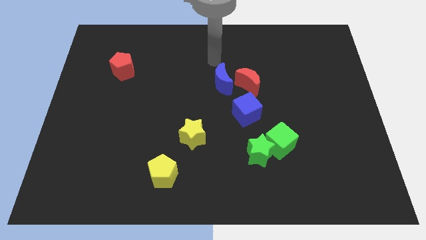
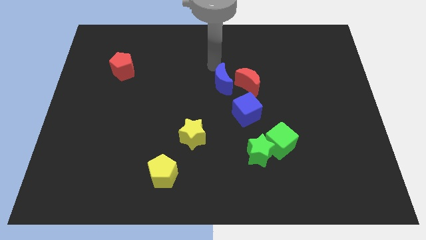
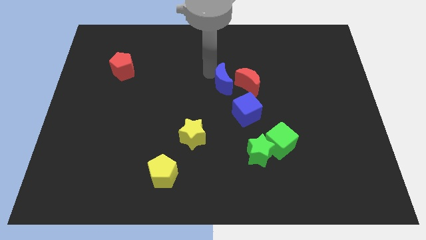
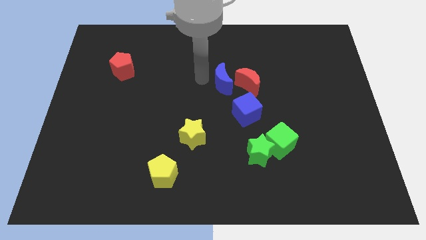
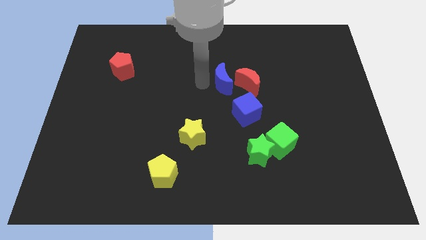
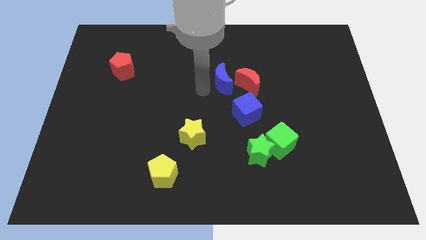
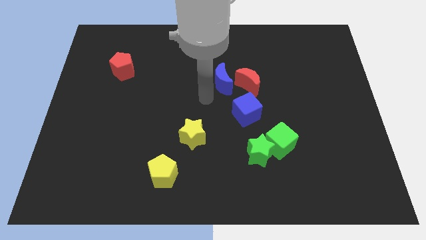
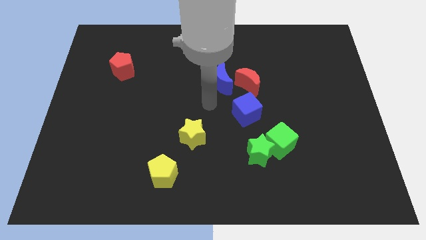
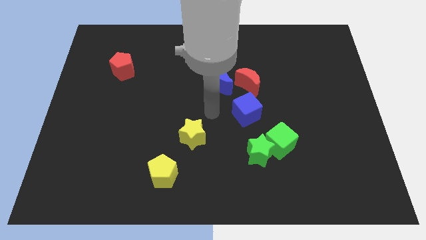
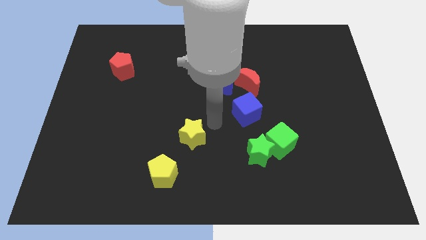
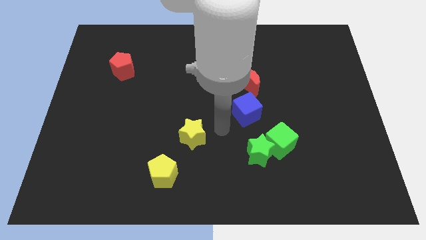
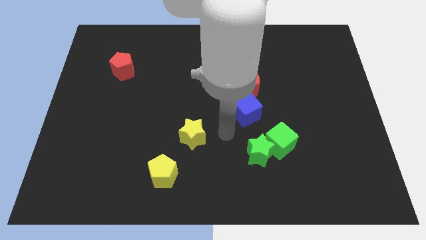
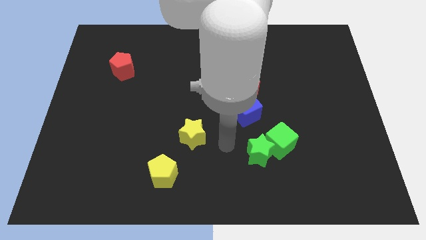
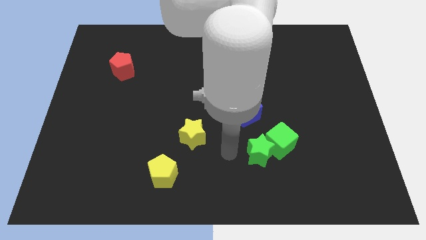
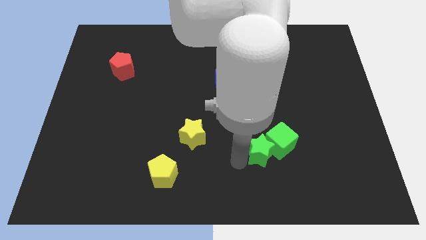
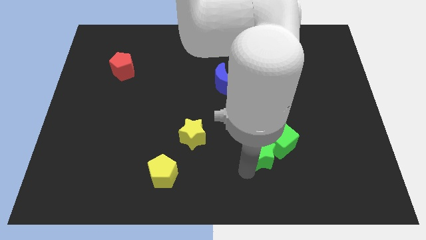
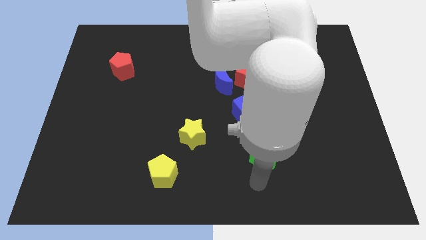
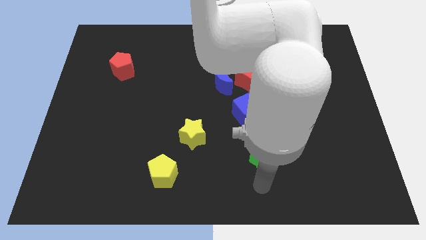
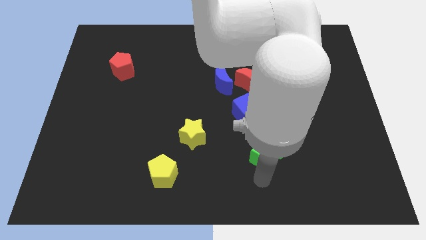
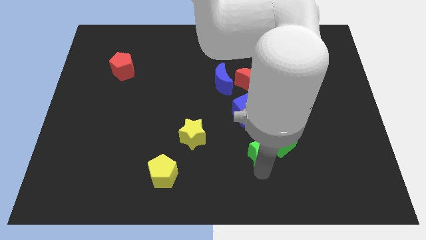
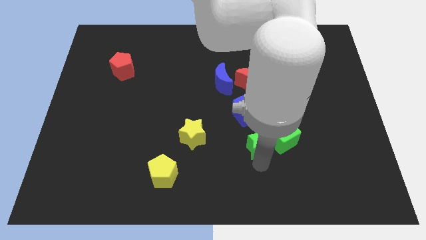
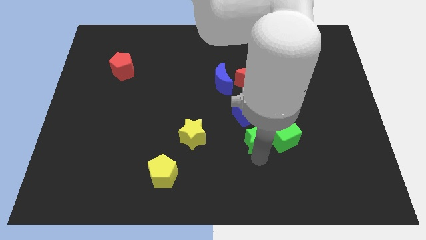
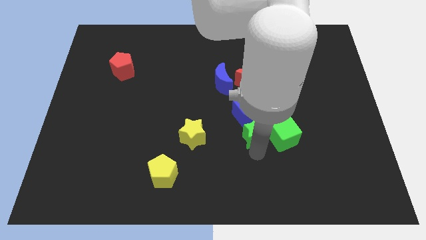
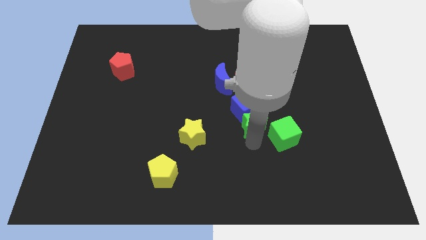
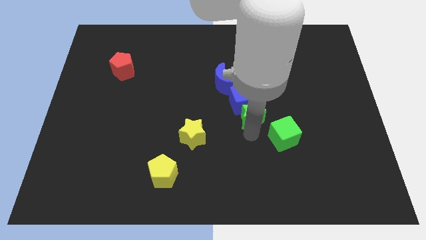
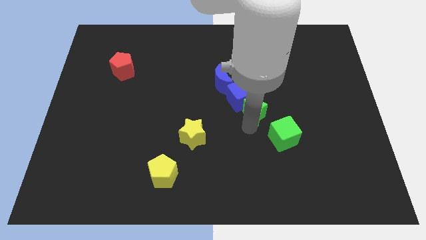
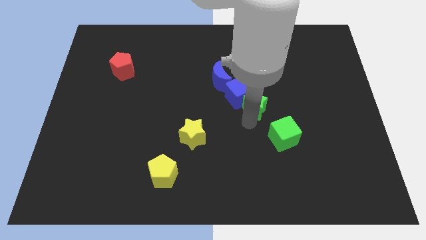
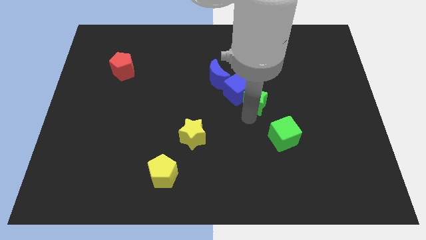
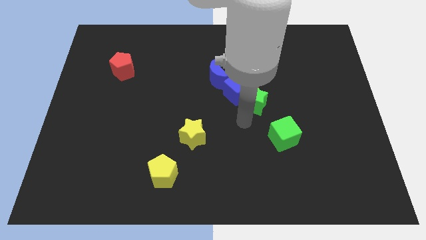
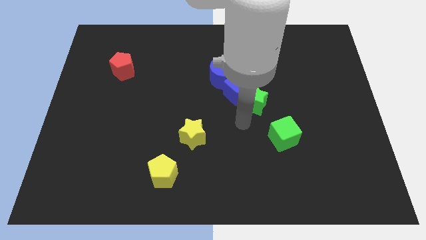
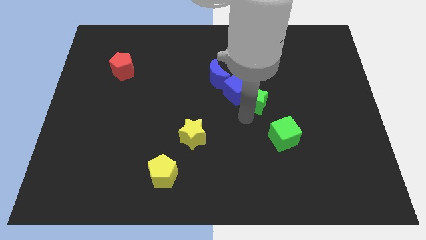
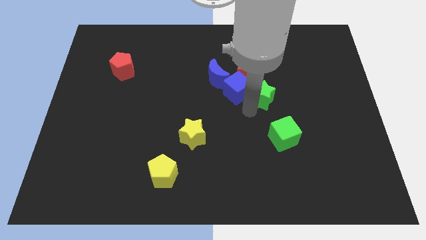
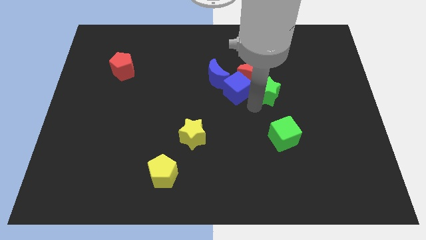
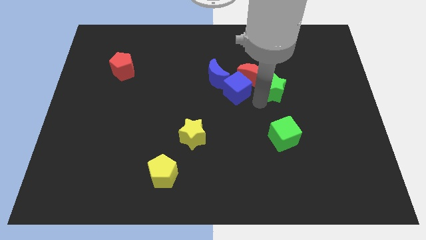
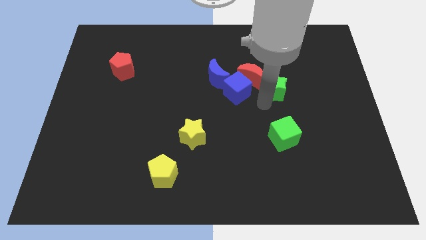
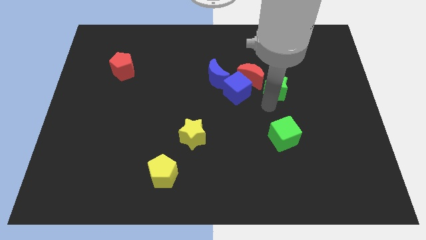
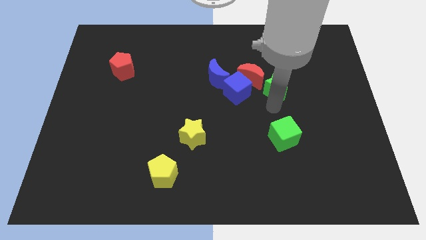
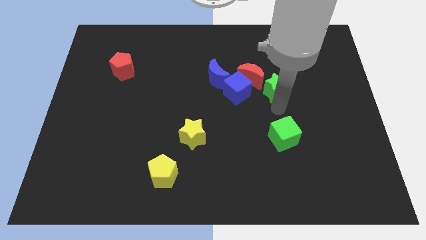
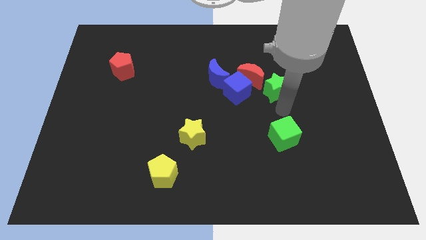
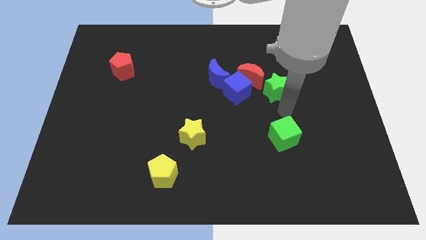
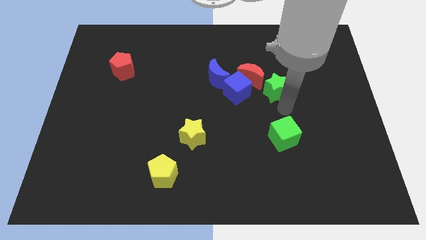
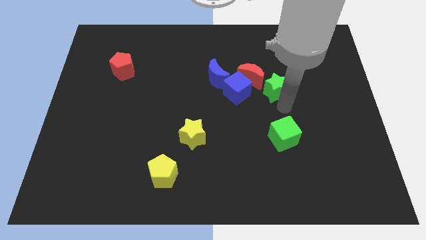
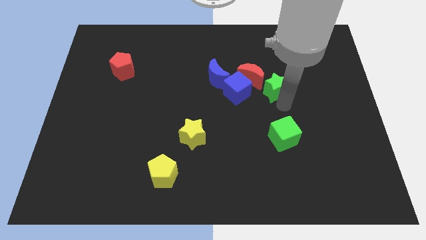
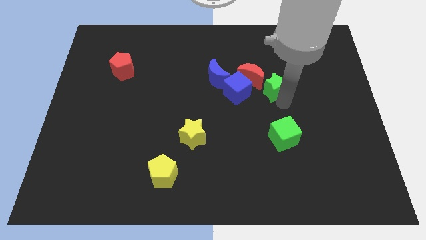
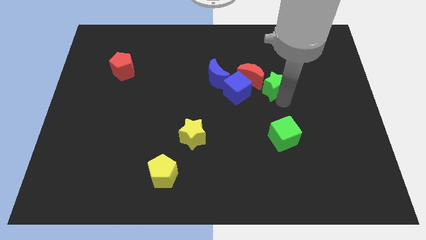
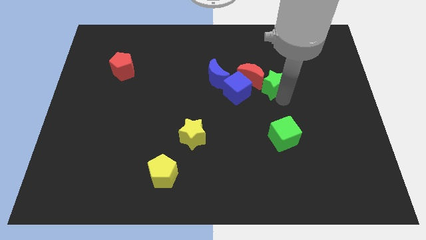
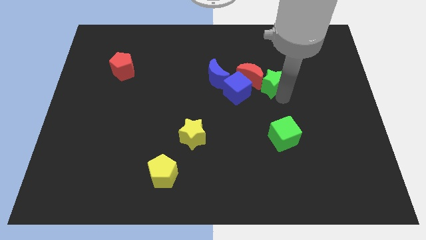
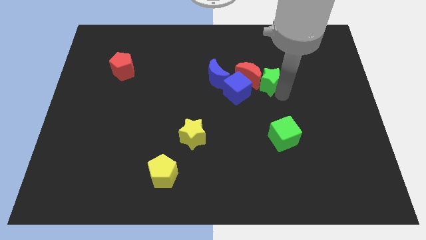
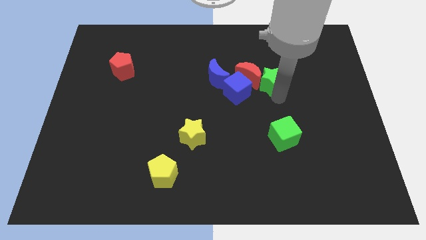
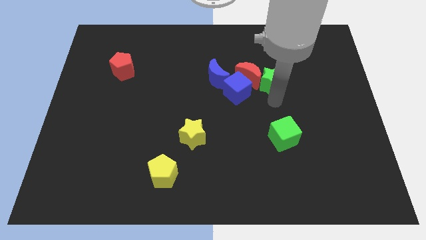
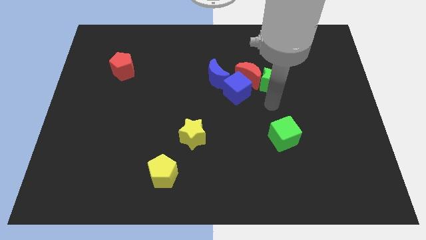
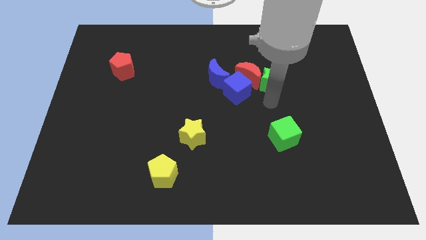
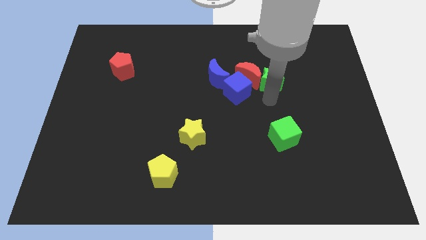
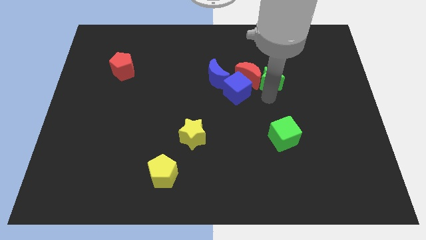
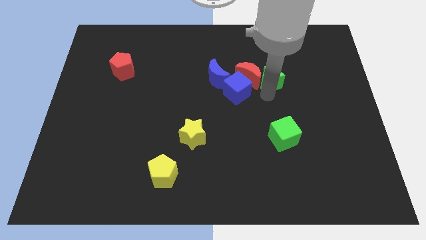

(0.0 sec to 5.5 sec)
put the green star to the top right side of the red moon

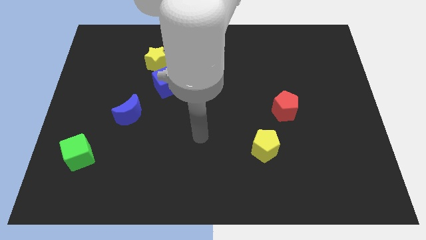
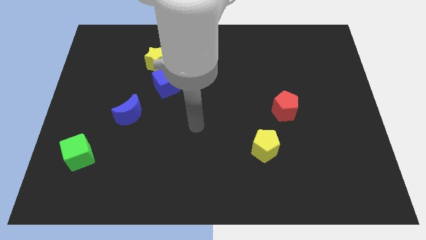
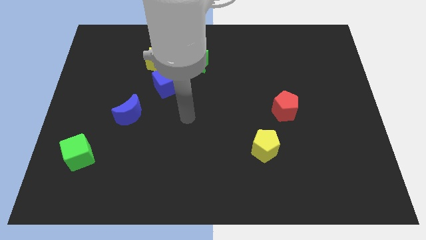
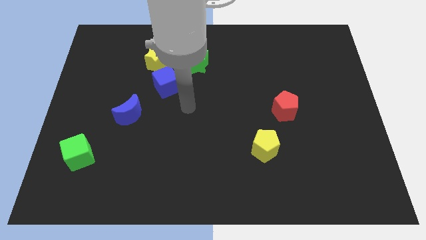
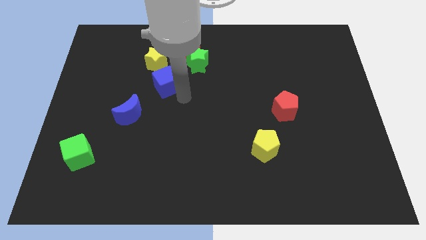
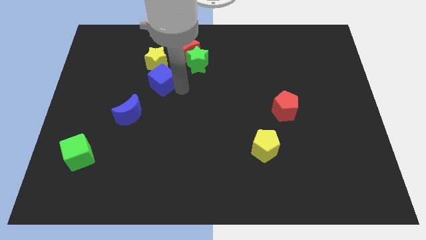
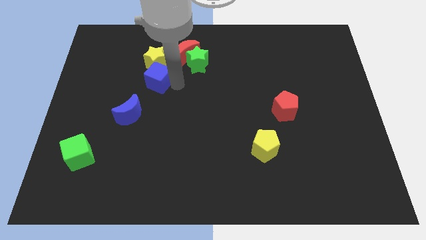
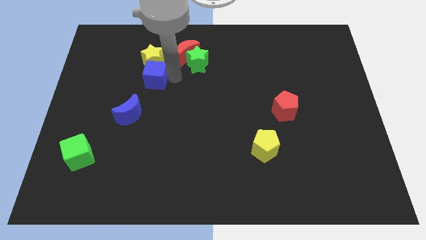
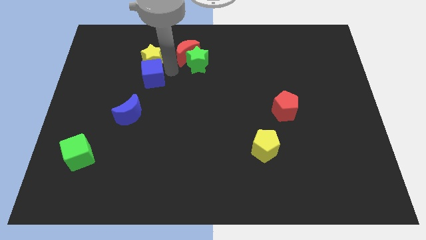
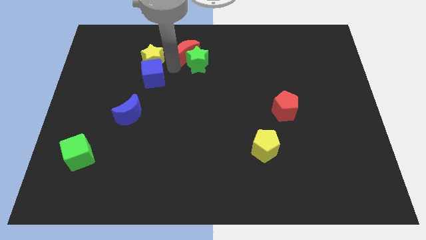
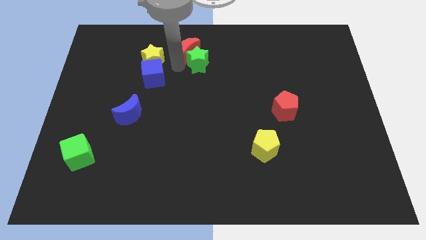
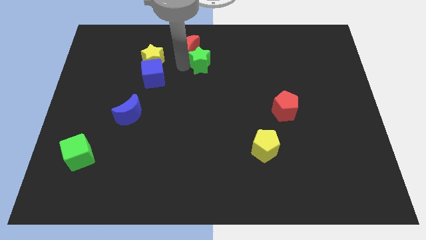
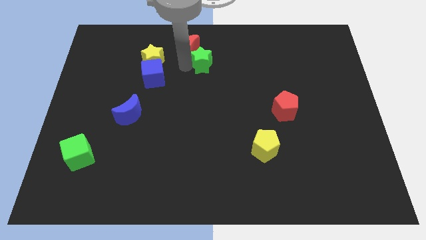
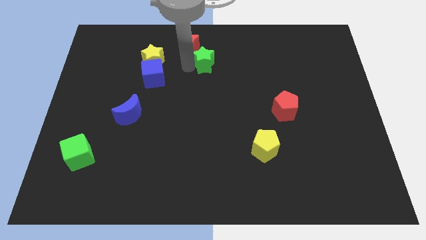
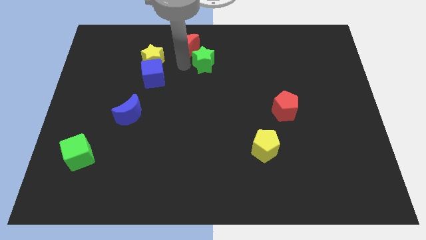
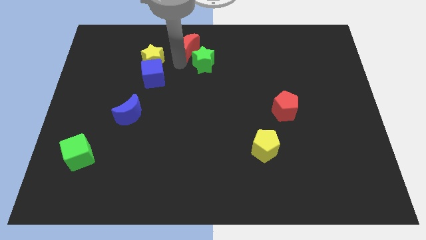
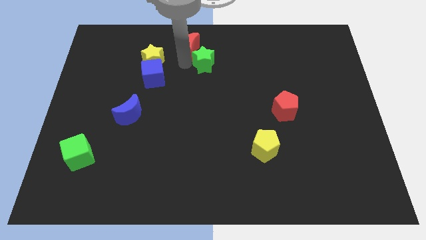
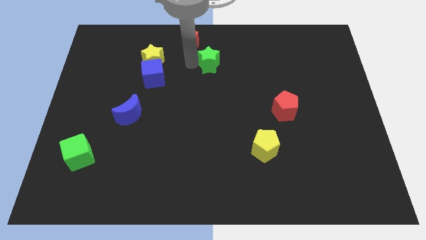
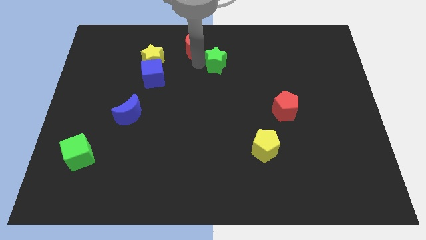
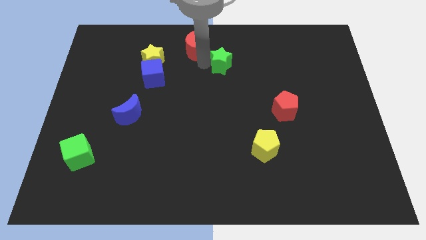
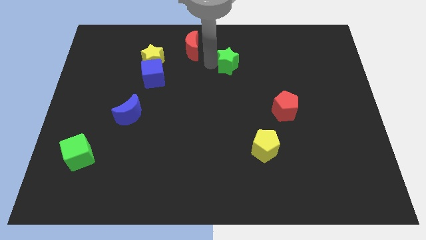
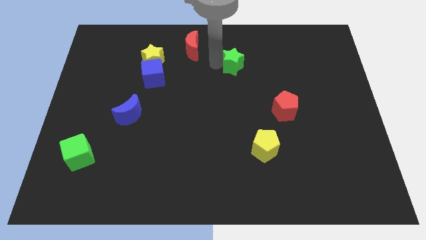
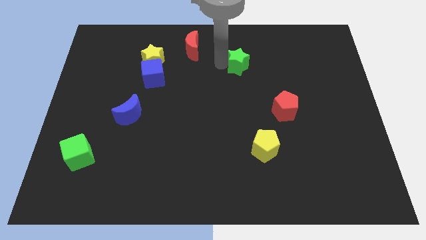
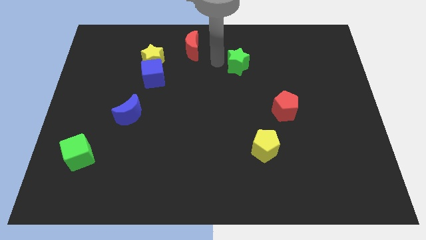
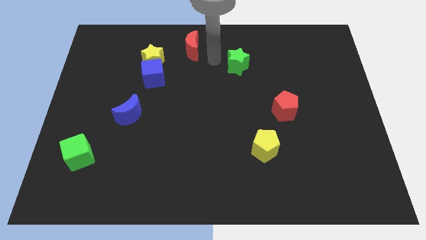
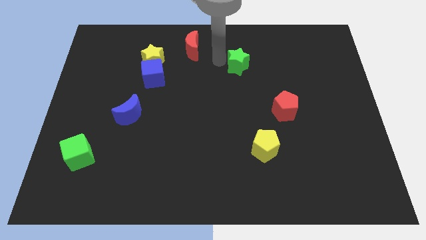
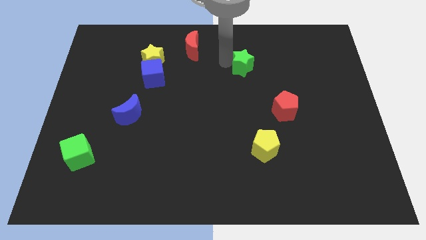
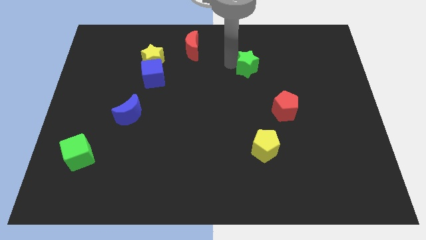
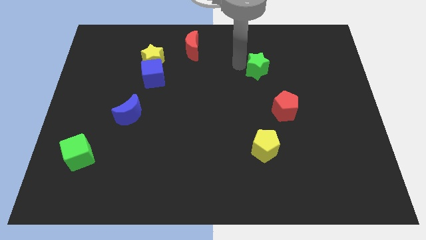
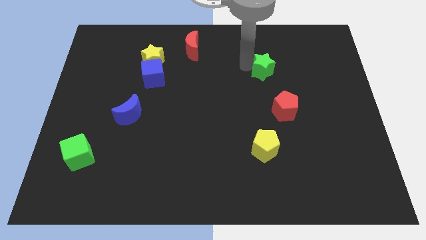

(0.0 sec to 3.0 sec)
push the green star to the top of the red pentagon
